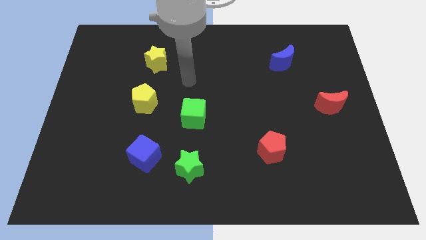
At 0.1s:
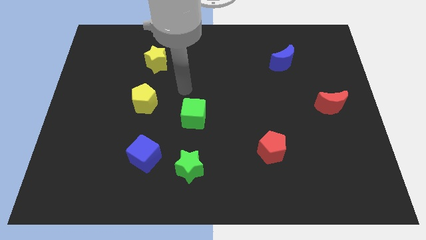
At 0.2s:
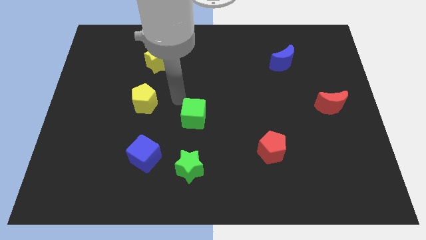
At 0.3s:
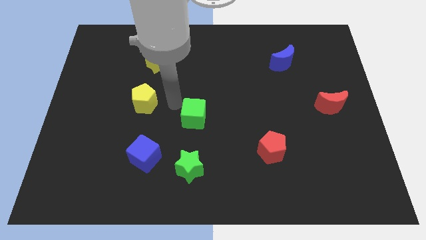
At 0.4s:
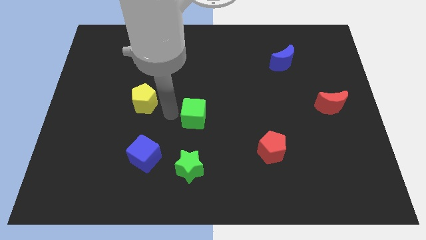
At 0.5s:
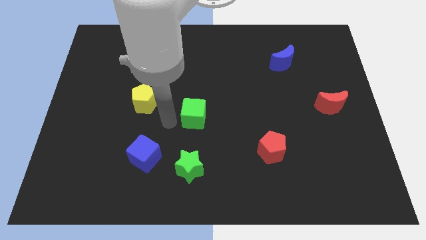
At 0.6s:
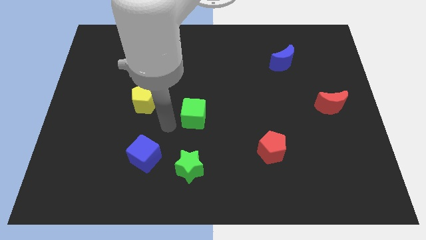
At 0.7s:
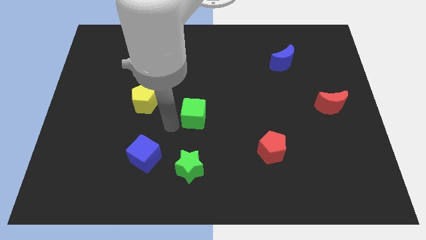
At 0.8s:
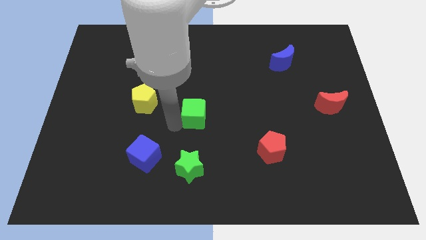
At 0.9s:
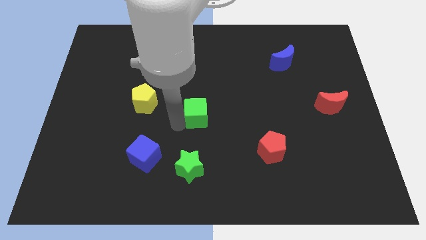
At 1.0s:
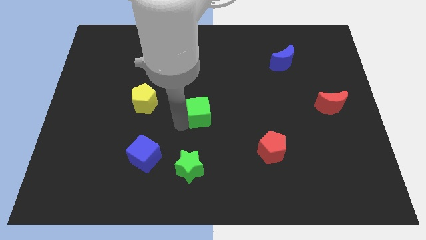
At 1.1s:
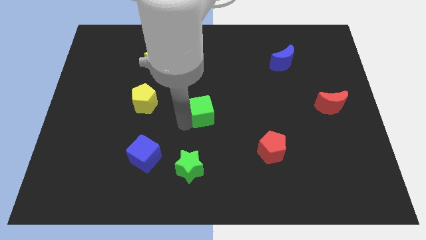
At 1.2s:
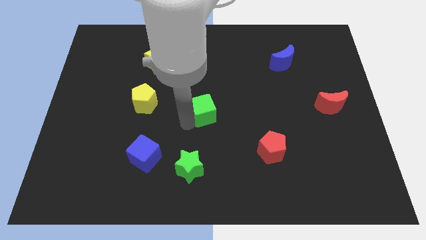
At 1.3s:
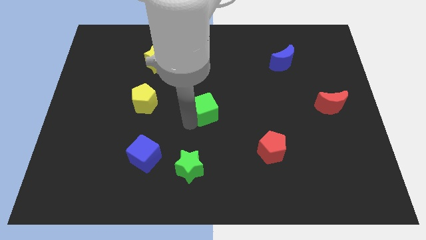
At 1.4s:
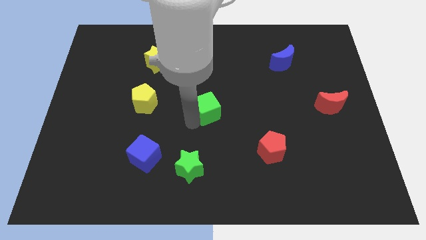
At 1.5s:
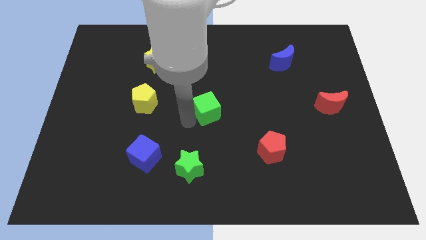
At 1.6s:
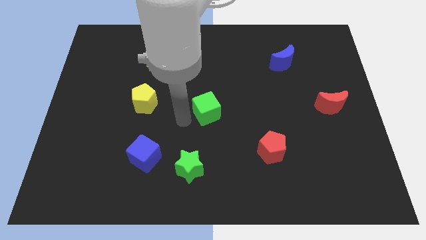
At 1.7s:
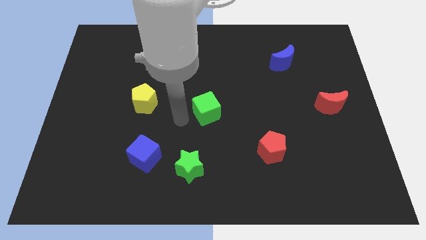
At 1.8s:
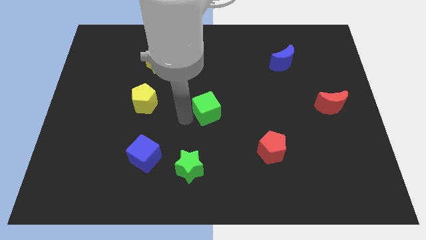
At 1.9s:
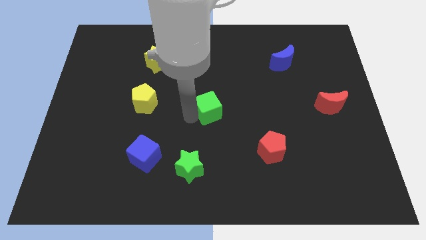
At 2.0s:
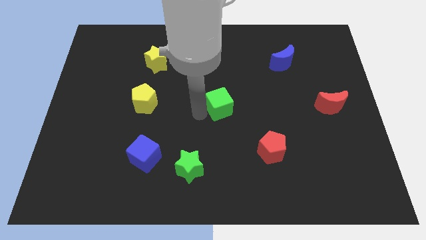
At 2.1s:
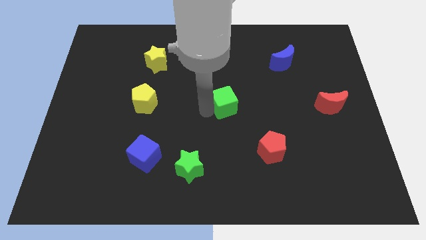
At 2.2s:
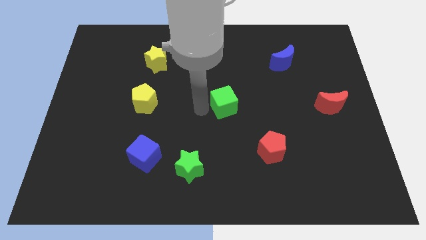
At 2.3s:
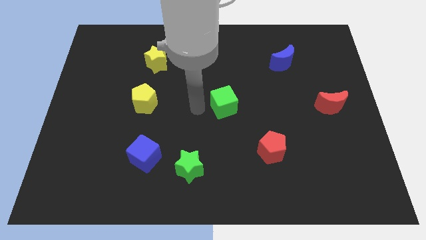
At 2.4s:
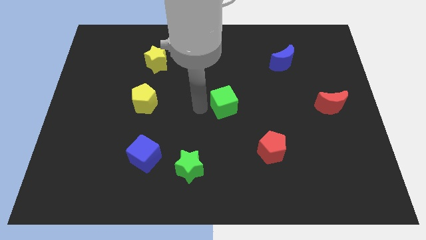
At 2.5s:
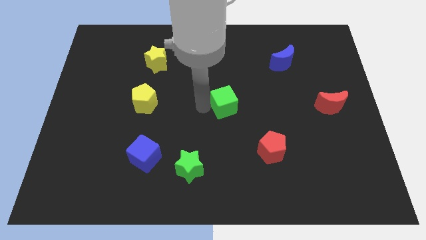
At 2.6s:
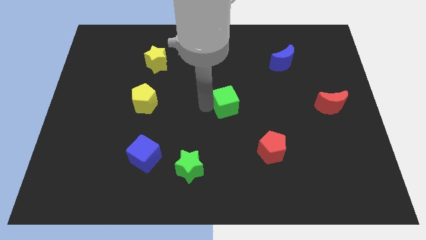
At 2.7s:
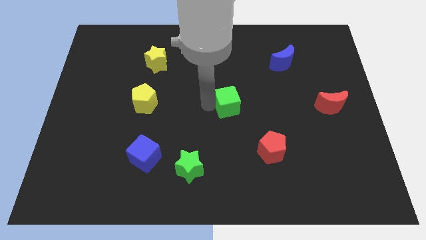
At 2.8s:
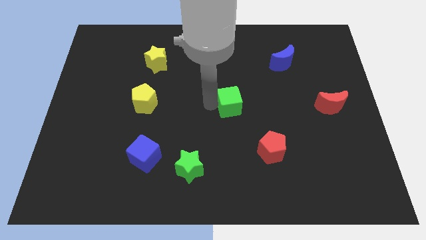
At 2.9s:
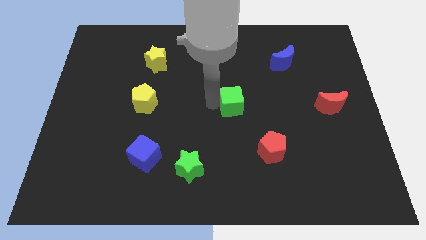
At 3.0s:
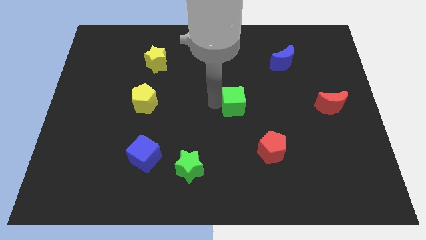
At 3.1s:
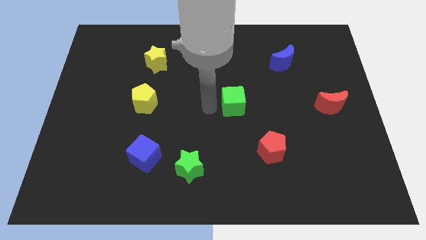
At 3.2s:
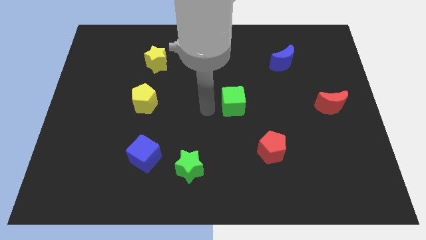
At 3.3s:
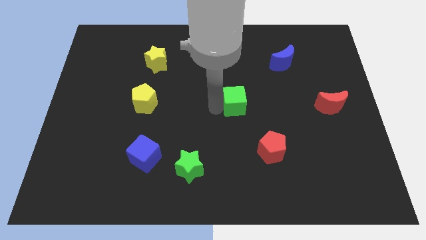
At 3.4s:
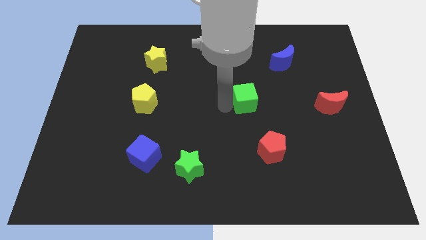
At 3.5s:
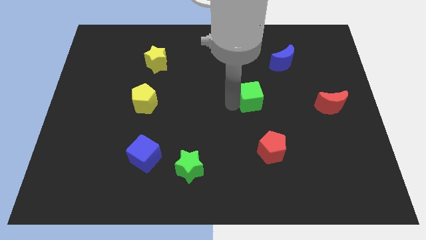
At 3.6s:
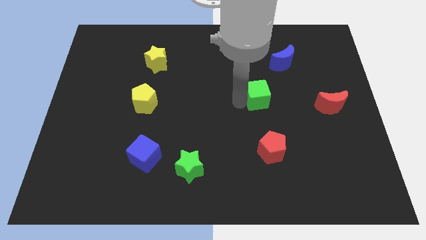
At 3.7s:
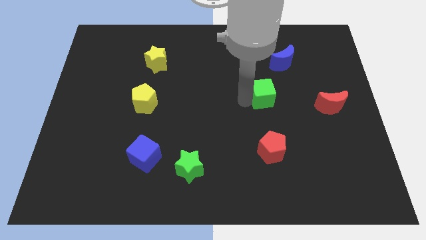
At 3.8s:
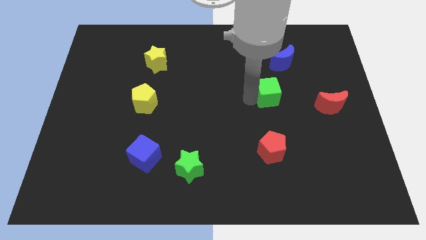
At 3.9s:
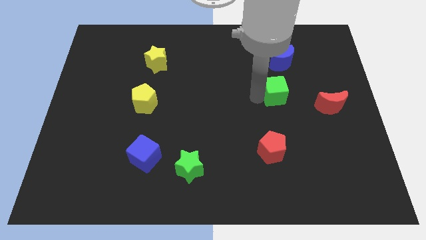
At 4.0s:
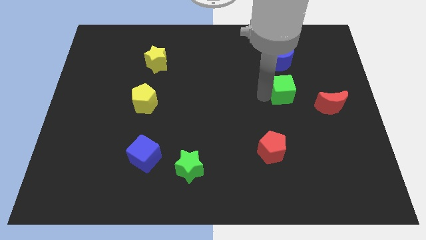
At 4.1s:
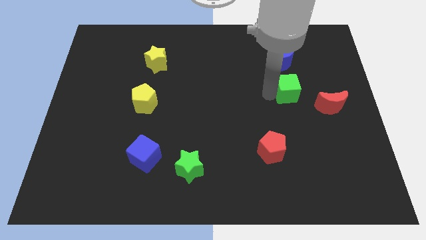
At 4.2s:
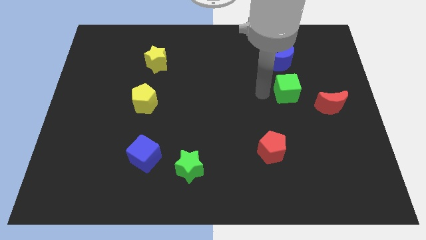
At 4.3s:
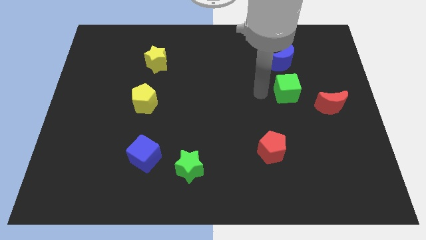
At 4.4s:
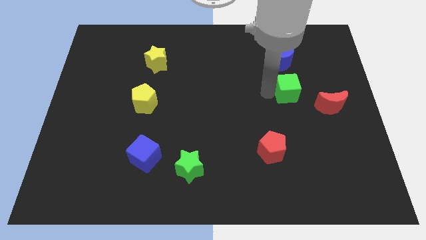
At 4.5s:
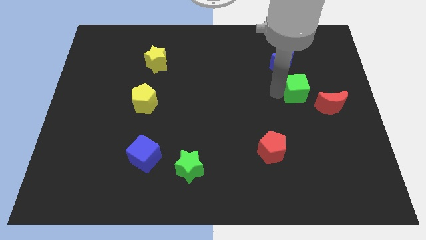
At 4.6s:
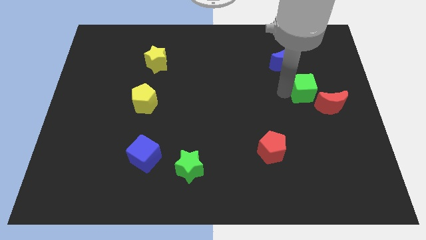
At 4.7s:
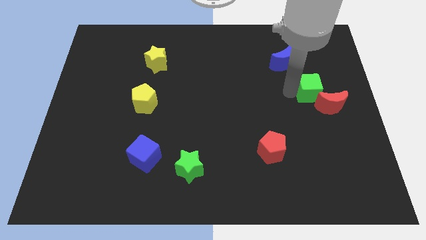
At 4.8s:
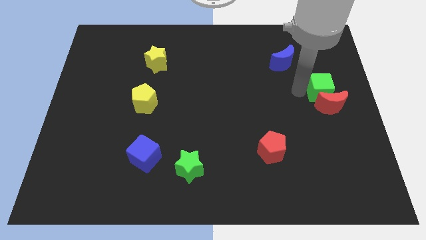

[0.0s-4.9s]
push the green cube to the right side

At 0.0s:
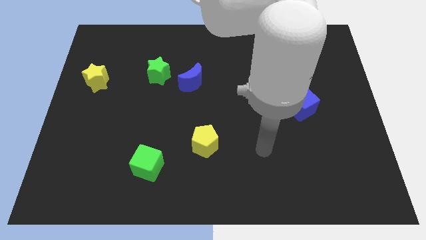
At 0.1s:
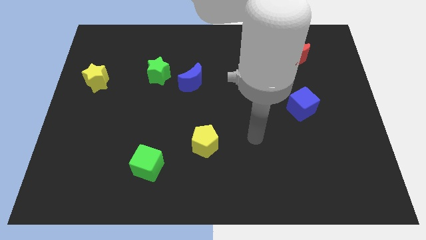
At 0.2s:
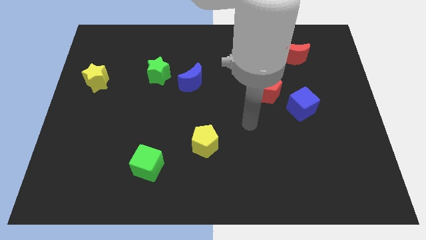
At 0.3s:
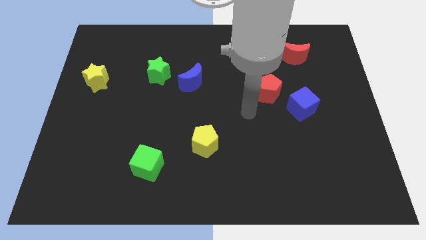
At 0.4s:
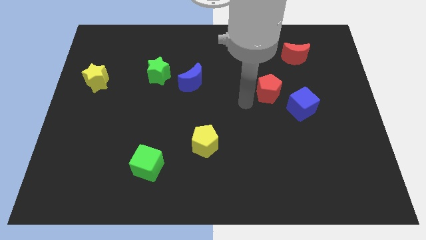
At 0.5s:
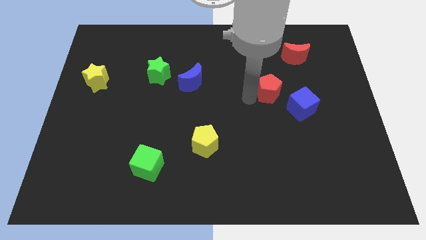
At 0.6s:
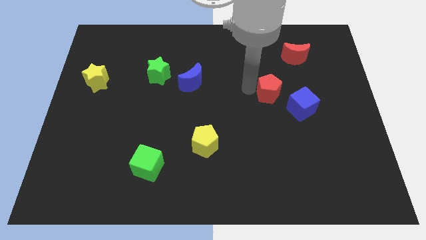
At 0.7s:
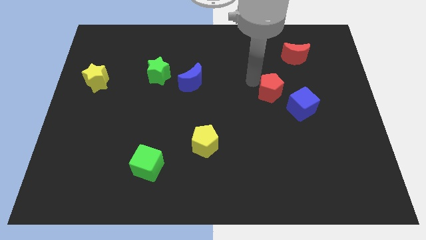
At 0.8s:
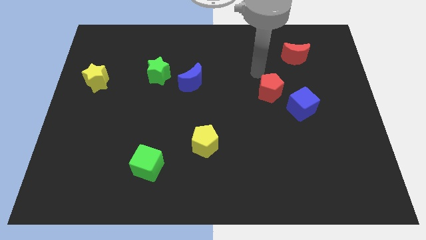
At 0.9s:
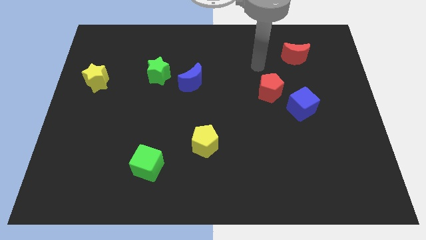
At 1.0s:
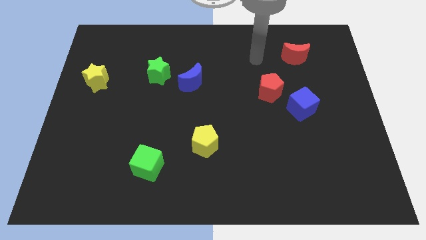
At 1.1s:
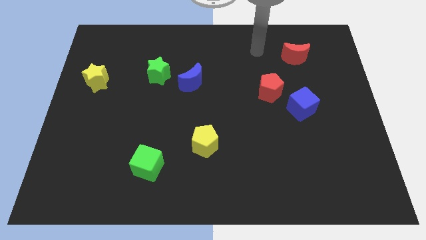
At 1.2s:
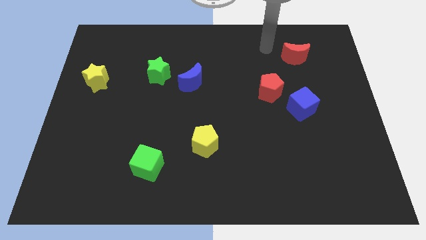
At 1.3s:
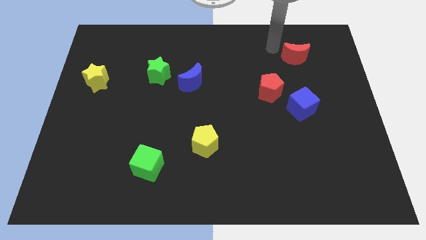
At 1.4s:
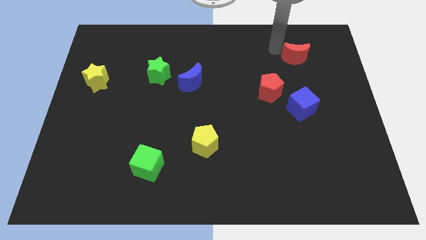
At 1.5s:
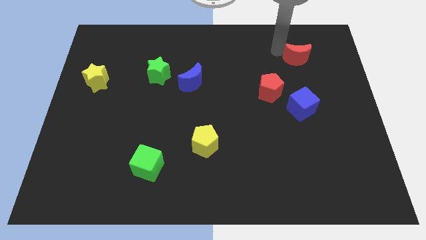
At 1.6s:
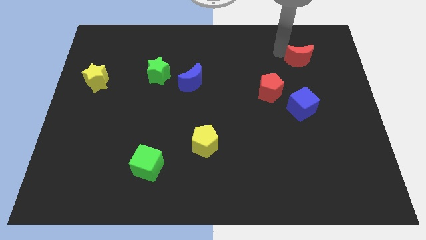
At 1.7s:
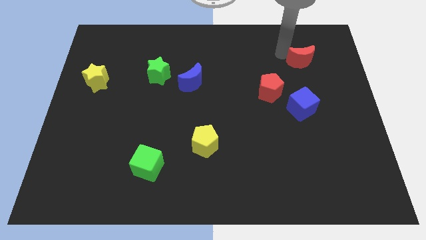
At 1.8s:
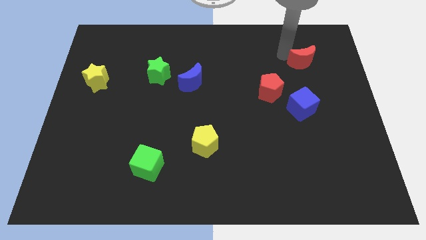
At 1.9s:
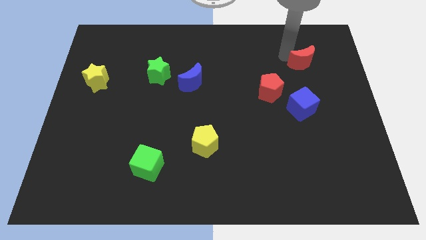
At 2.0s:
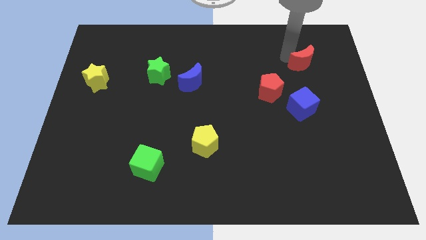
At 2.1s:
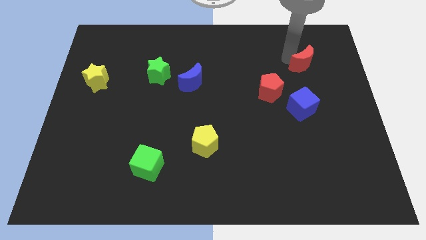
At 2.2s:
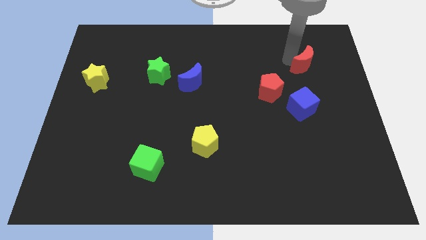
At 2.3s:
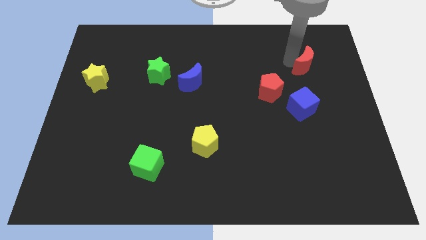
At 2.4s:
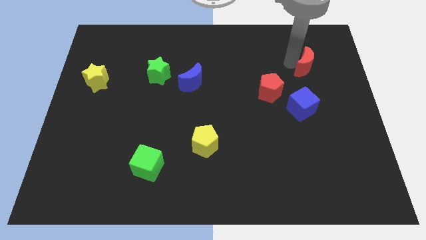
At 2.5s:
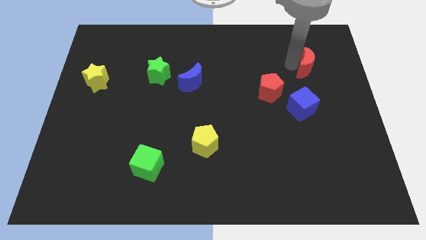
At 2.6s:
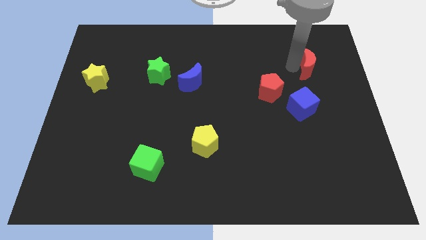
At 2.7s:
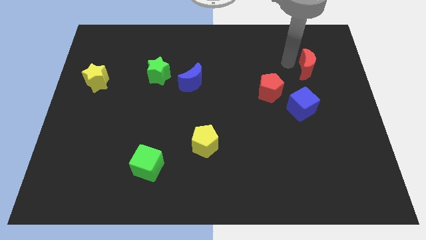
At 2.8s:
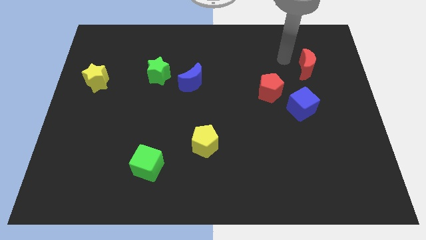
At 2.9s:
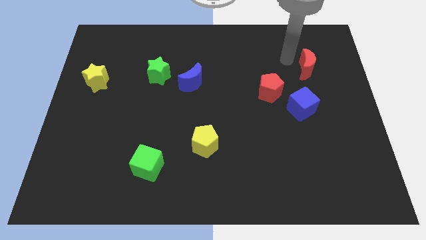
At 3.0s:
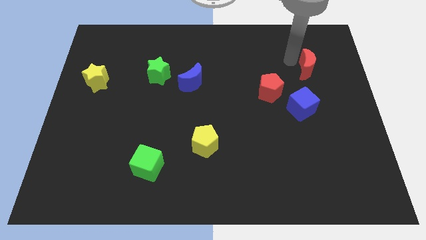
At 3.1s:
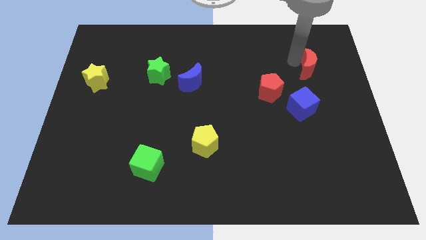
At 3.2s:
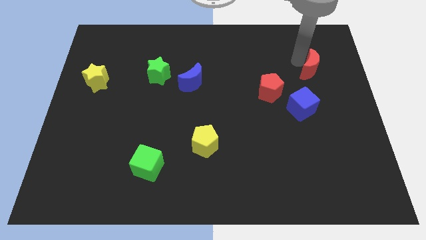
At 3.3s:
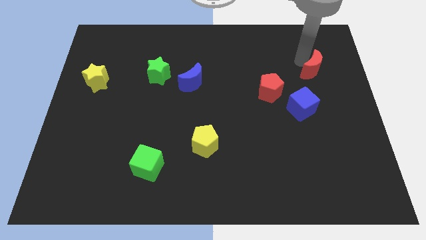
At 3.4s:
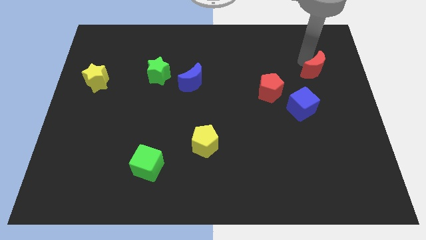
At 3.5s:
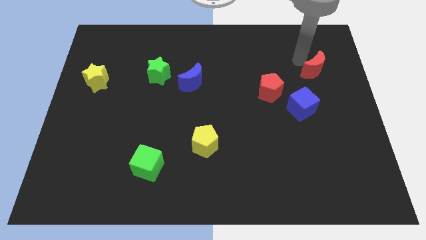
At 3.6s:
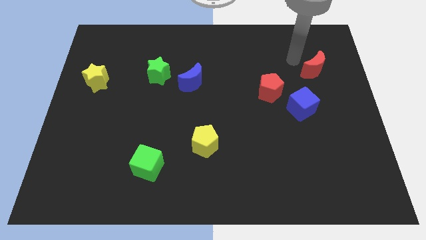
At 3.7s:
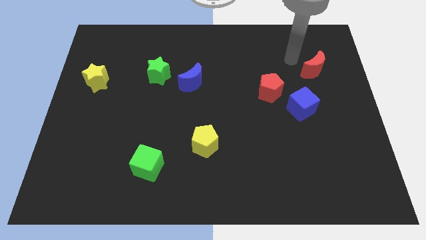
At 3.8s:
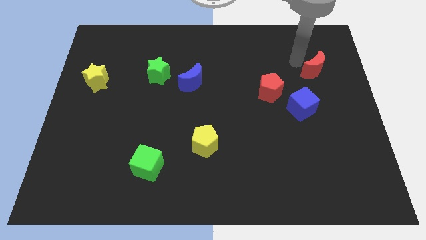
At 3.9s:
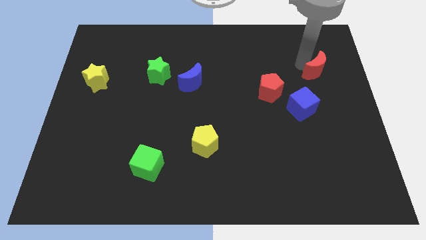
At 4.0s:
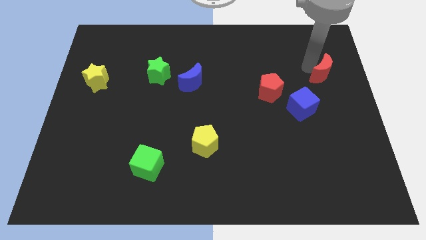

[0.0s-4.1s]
push the red moon to the right side
